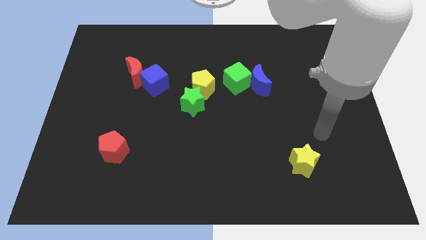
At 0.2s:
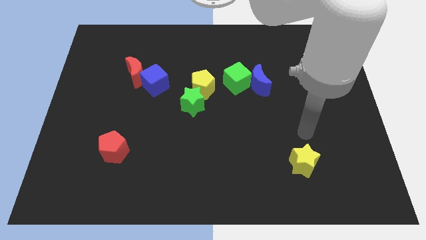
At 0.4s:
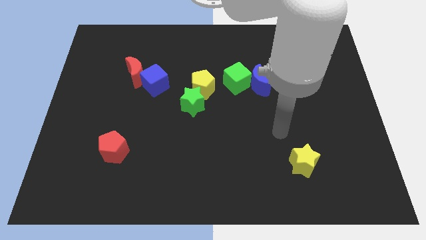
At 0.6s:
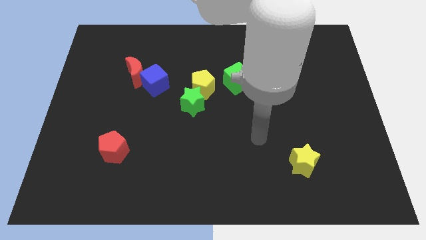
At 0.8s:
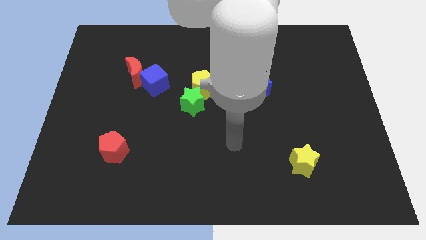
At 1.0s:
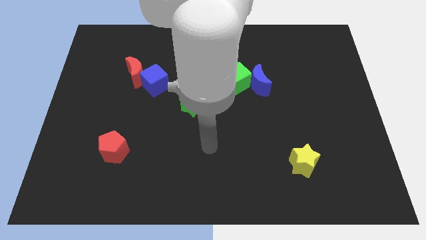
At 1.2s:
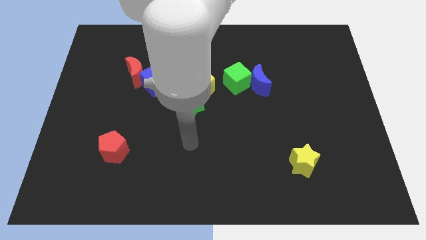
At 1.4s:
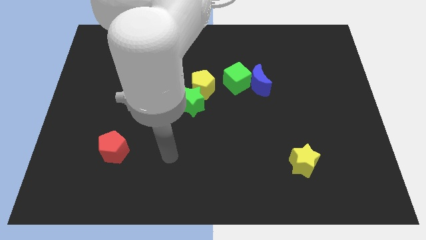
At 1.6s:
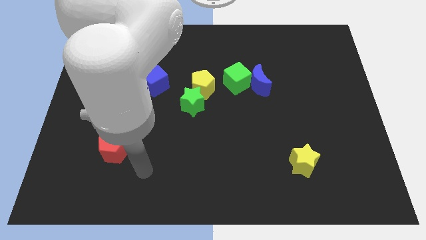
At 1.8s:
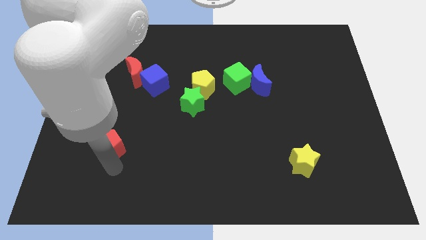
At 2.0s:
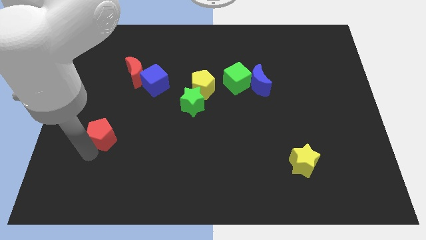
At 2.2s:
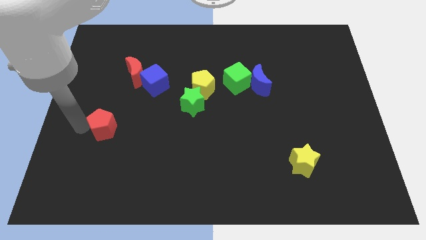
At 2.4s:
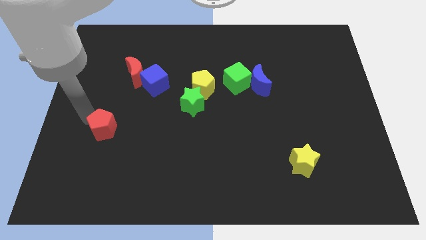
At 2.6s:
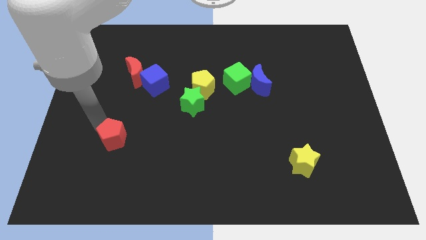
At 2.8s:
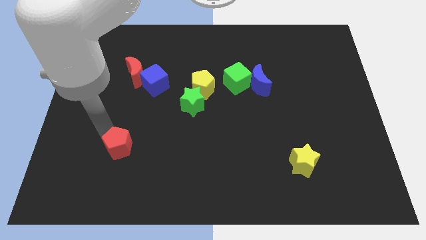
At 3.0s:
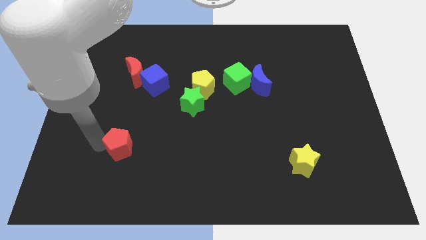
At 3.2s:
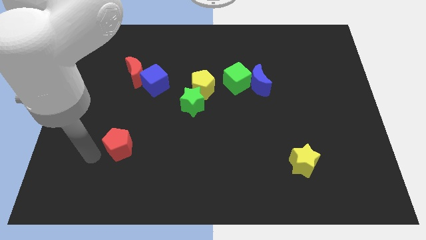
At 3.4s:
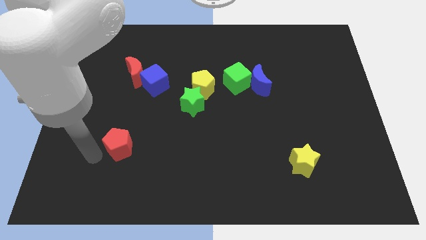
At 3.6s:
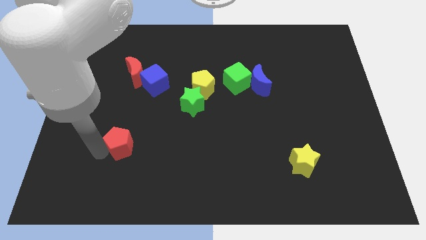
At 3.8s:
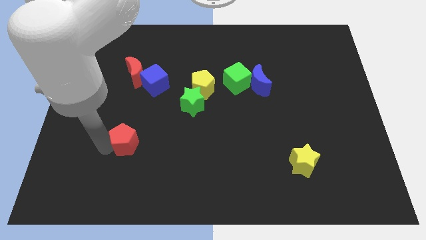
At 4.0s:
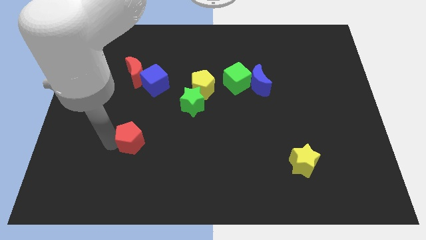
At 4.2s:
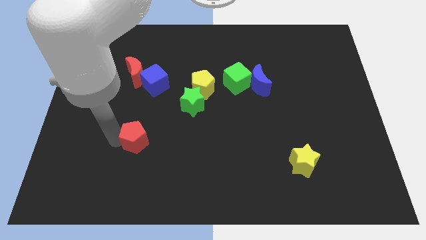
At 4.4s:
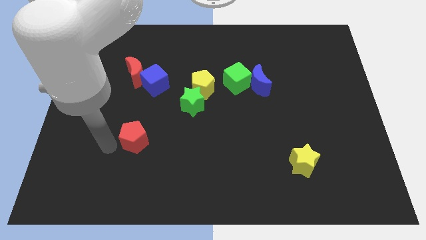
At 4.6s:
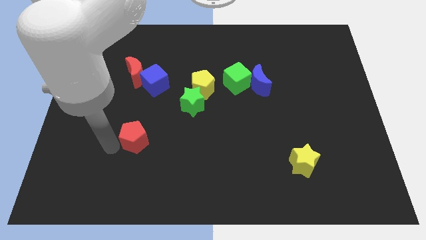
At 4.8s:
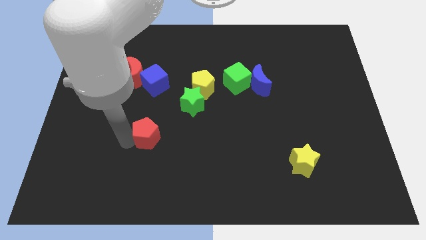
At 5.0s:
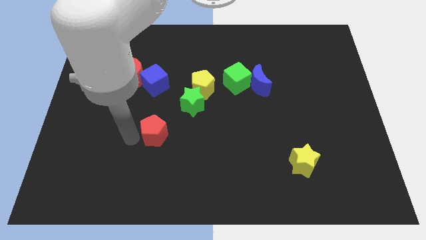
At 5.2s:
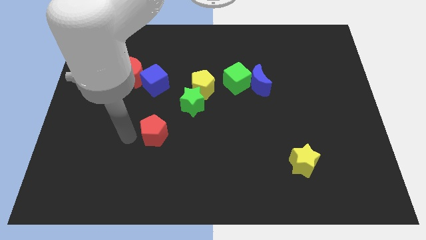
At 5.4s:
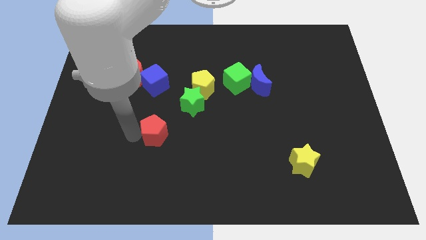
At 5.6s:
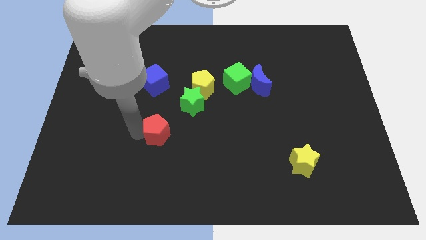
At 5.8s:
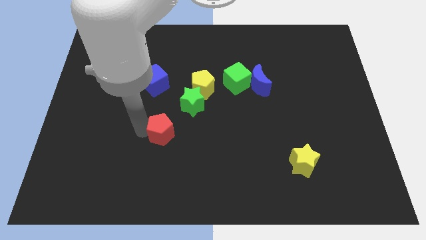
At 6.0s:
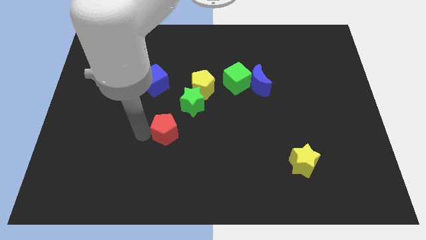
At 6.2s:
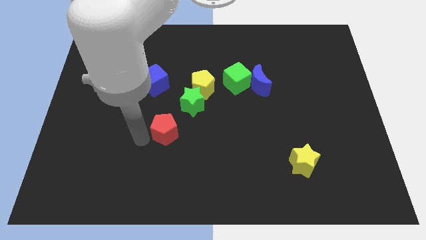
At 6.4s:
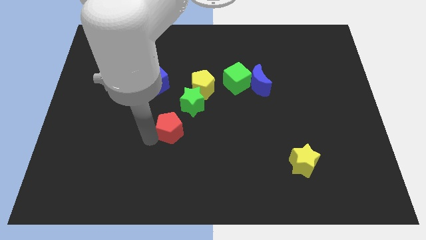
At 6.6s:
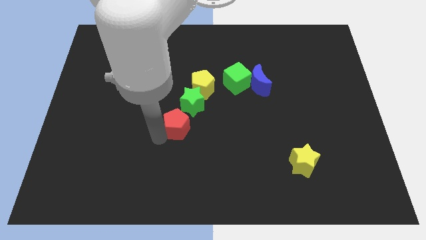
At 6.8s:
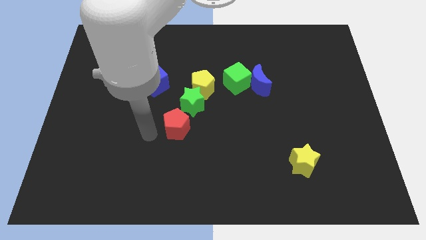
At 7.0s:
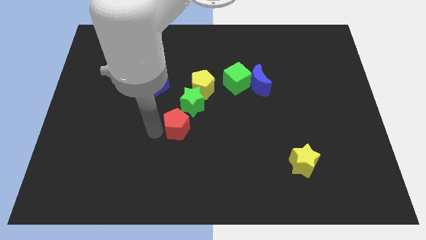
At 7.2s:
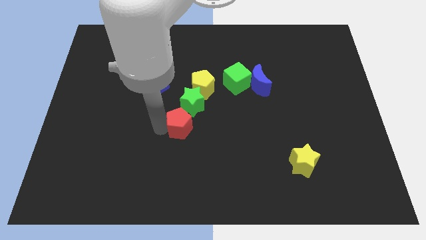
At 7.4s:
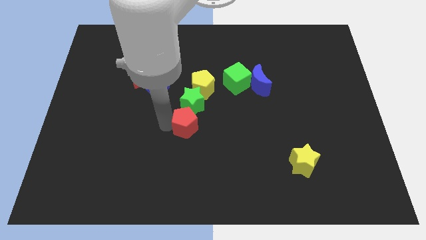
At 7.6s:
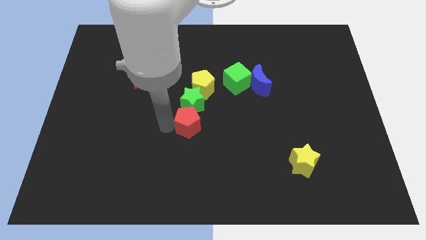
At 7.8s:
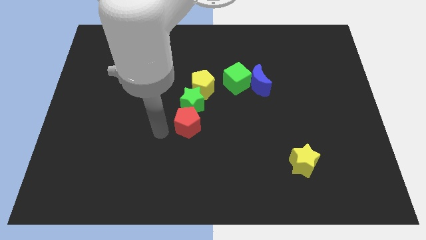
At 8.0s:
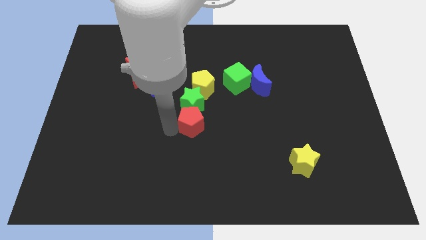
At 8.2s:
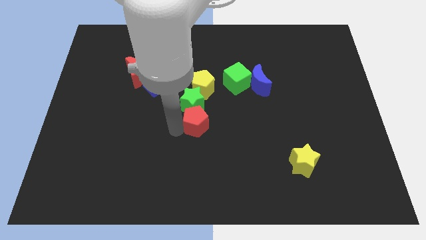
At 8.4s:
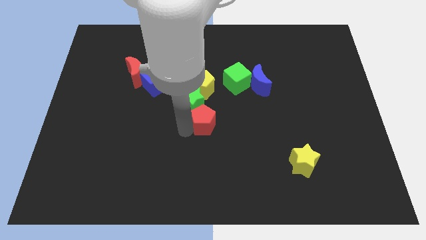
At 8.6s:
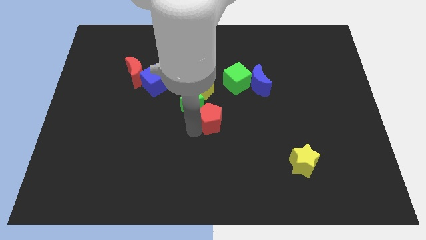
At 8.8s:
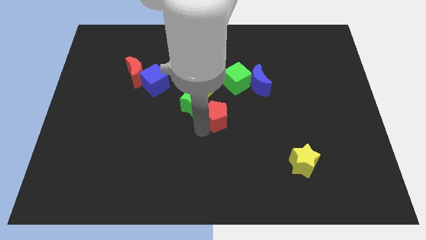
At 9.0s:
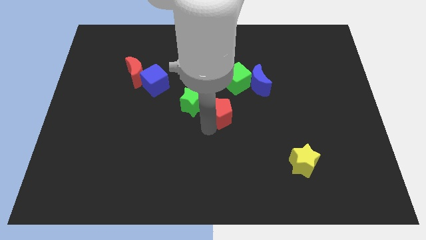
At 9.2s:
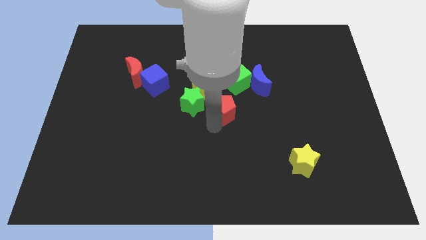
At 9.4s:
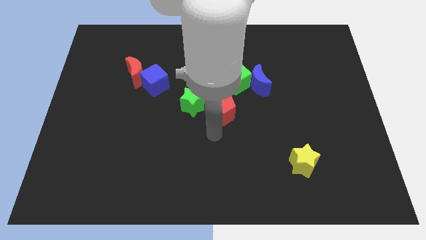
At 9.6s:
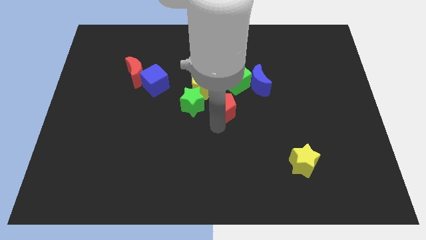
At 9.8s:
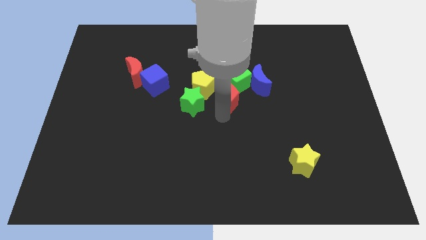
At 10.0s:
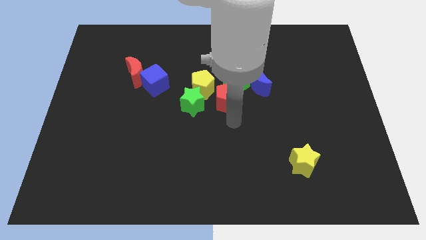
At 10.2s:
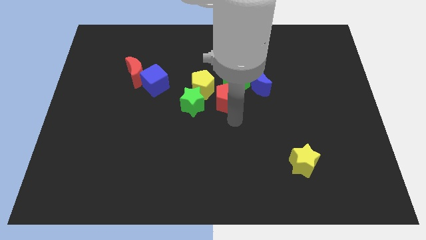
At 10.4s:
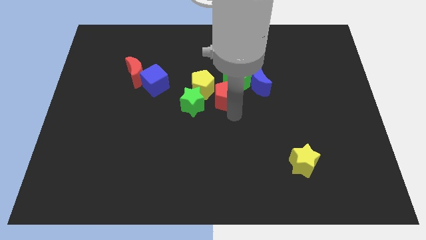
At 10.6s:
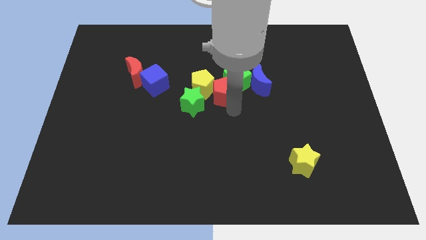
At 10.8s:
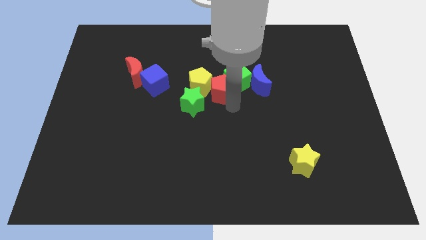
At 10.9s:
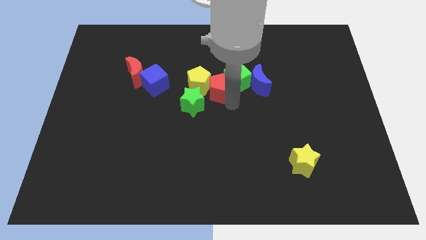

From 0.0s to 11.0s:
put the red pentagon just right of the blue cube

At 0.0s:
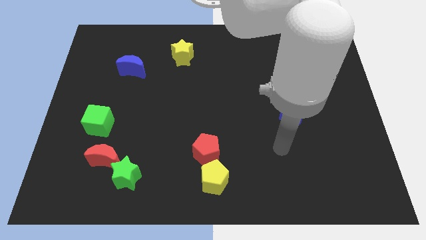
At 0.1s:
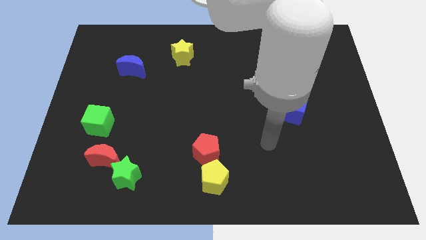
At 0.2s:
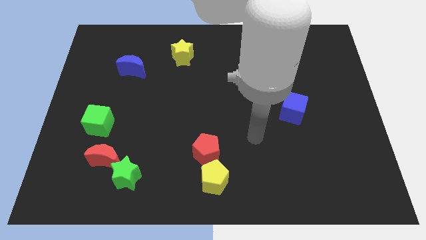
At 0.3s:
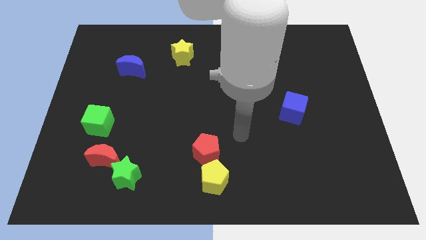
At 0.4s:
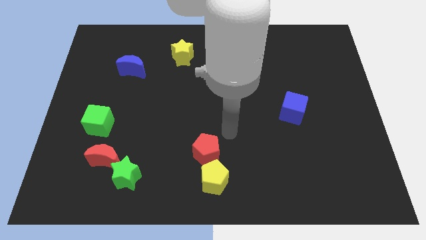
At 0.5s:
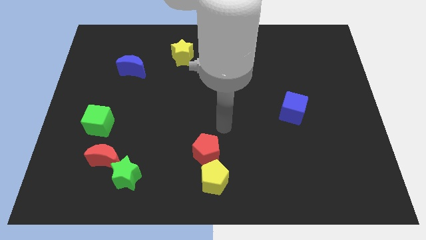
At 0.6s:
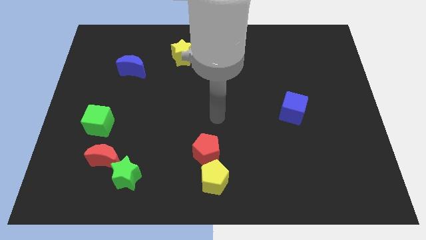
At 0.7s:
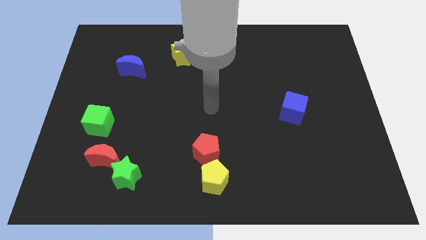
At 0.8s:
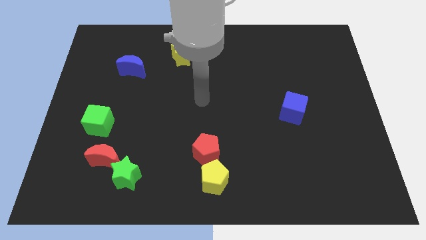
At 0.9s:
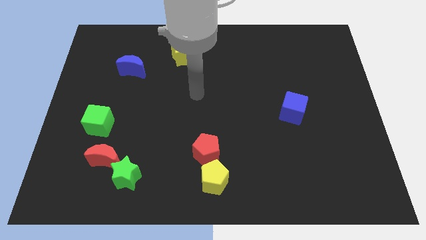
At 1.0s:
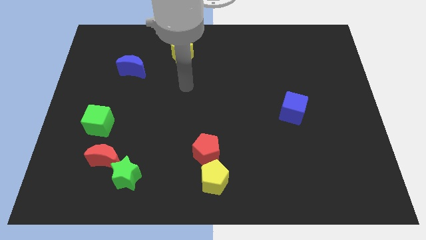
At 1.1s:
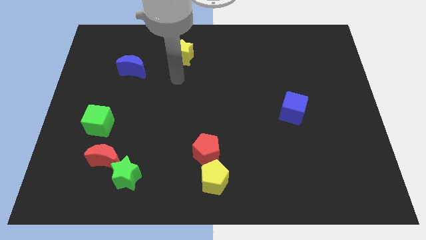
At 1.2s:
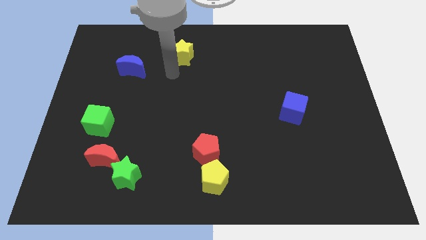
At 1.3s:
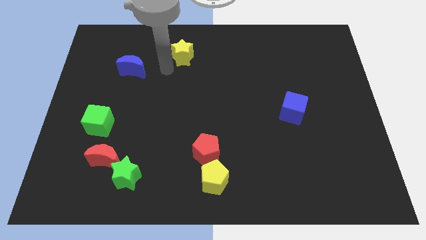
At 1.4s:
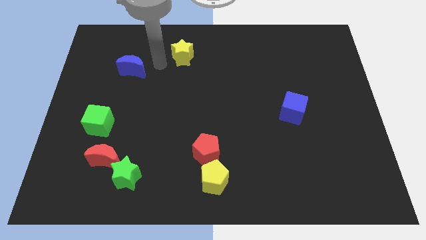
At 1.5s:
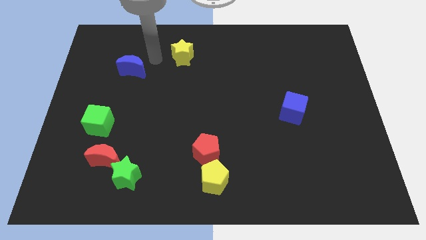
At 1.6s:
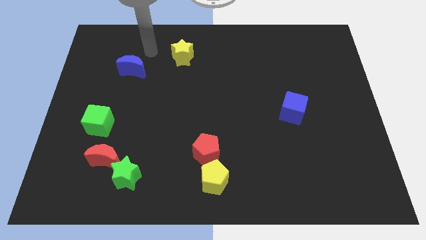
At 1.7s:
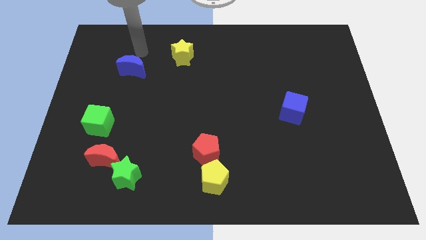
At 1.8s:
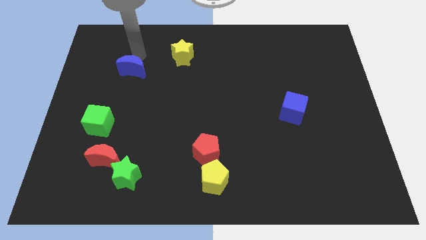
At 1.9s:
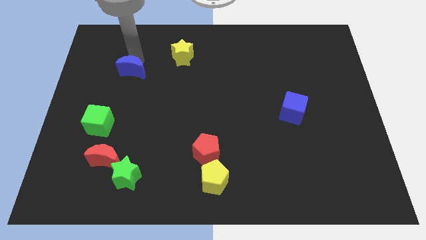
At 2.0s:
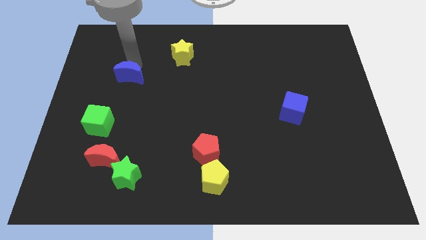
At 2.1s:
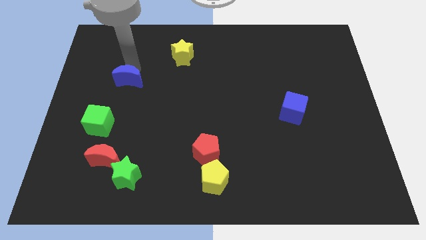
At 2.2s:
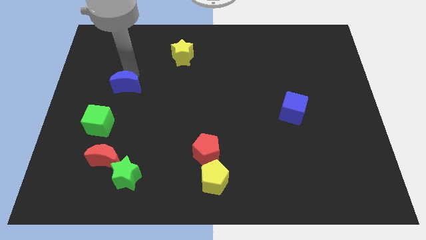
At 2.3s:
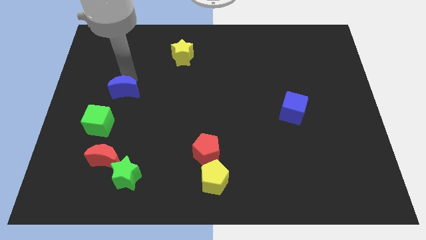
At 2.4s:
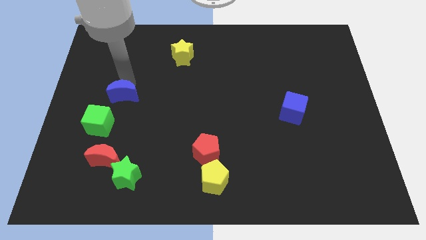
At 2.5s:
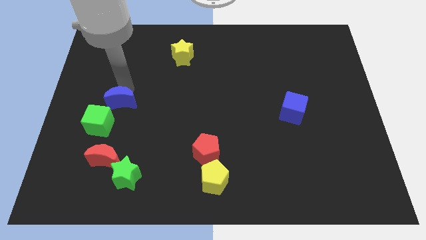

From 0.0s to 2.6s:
push the blue moon to the top of the red moon
